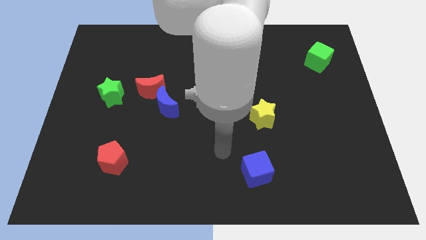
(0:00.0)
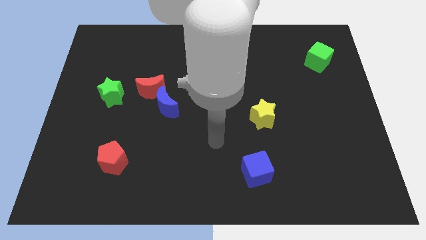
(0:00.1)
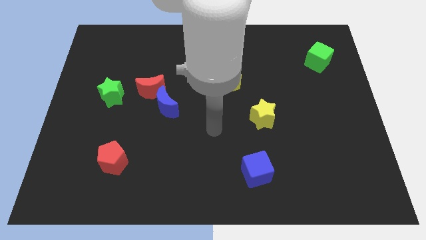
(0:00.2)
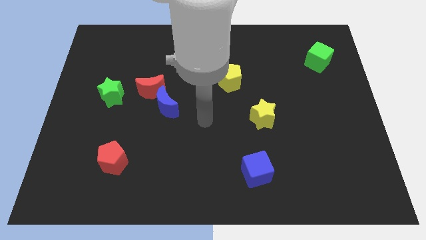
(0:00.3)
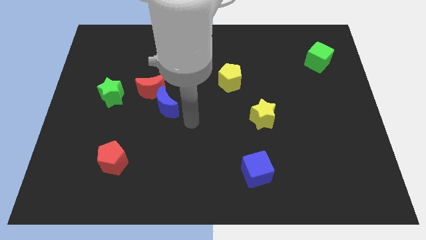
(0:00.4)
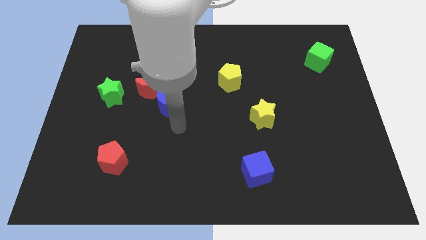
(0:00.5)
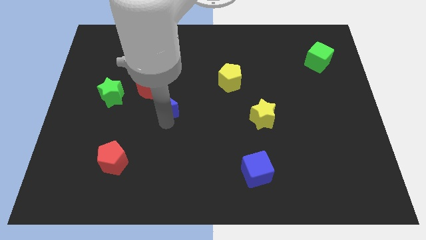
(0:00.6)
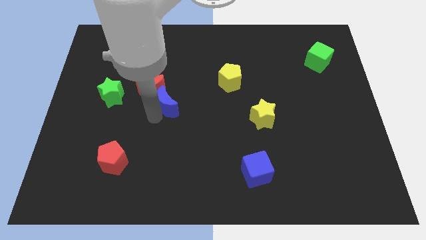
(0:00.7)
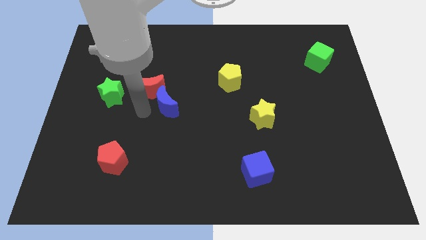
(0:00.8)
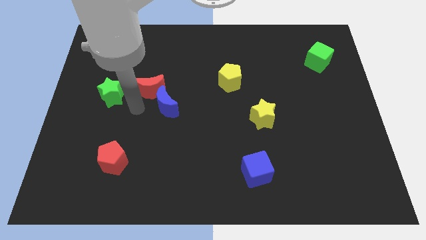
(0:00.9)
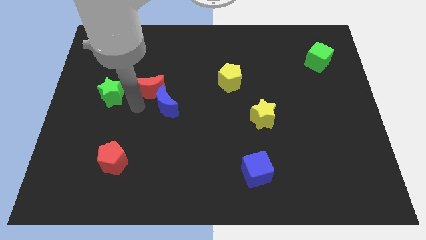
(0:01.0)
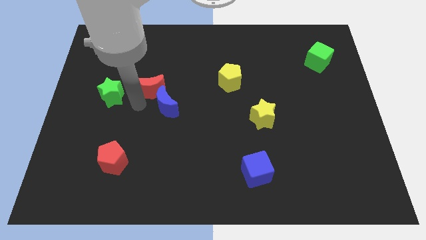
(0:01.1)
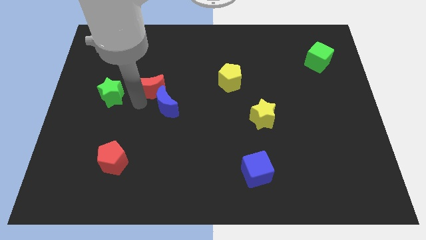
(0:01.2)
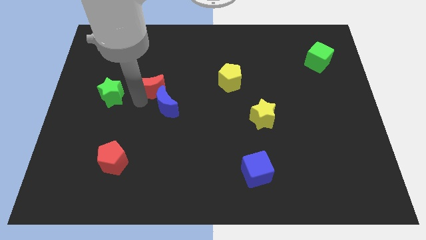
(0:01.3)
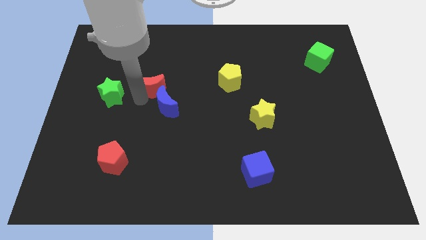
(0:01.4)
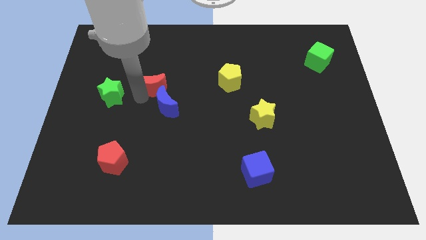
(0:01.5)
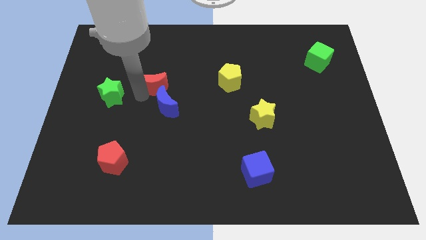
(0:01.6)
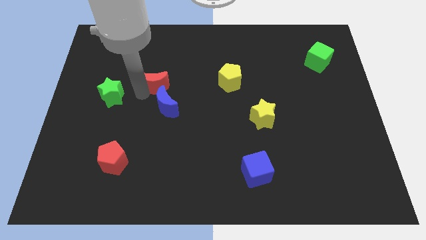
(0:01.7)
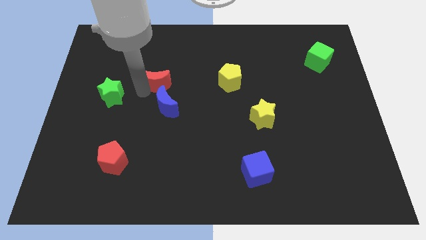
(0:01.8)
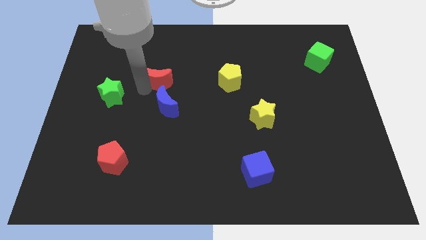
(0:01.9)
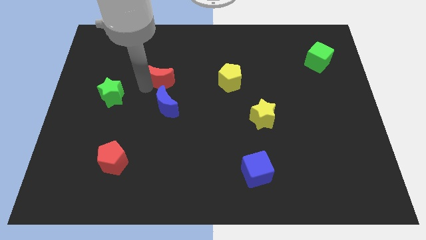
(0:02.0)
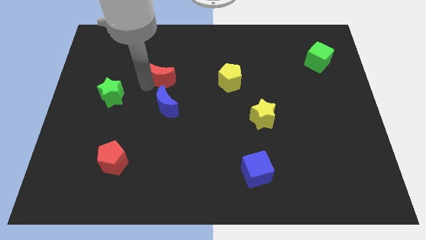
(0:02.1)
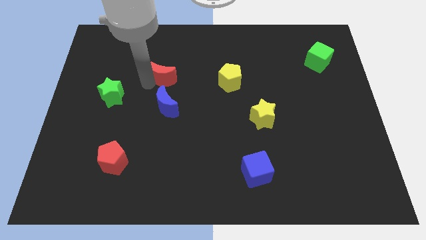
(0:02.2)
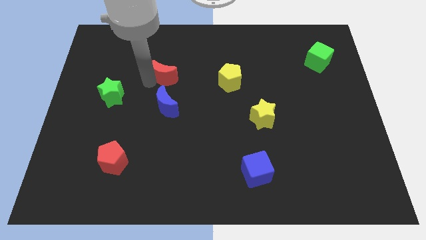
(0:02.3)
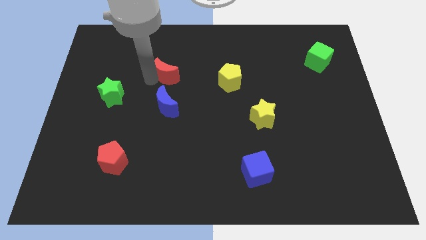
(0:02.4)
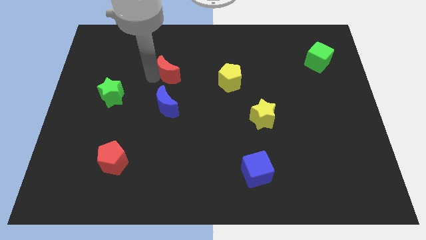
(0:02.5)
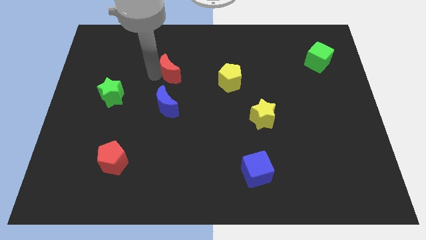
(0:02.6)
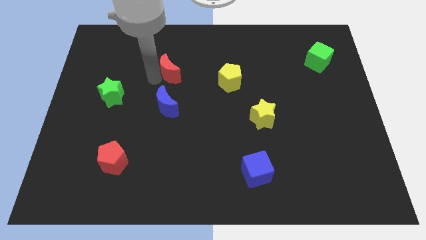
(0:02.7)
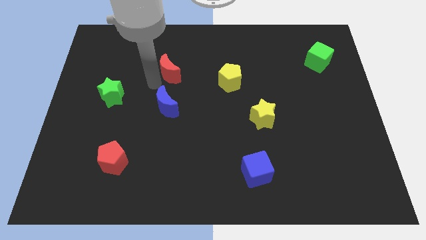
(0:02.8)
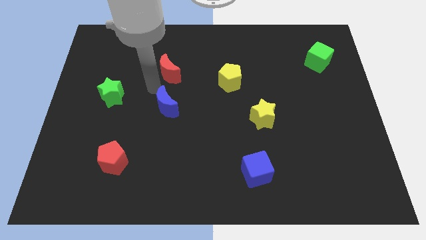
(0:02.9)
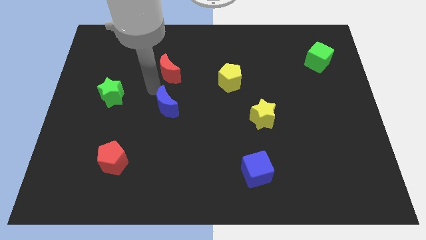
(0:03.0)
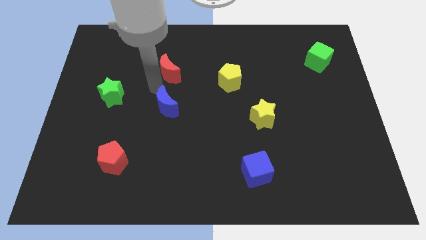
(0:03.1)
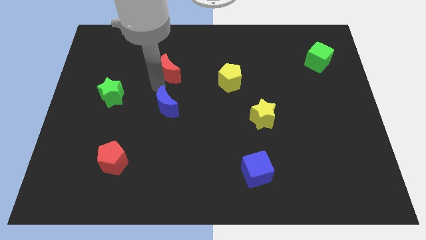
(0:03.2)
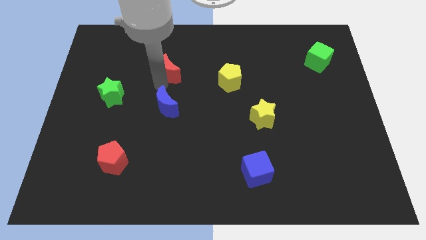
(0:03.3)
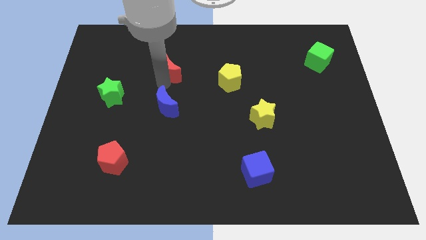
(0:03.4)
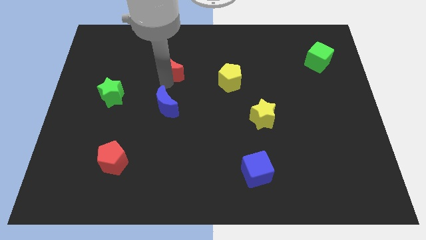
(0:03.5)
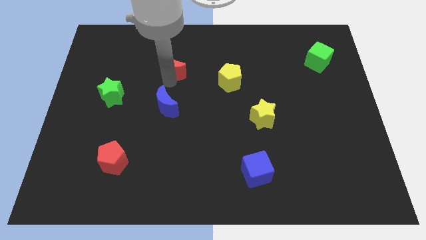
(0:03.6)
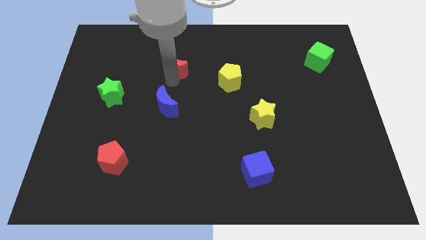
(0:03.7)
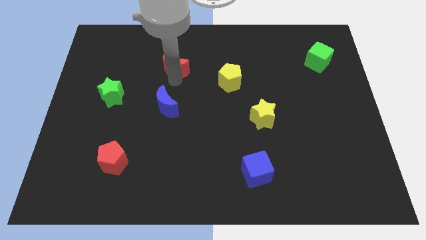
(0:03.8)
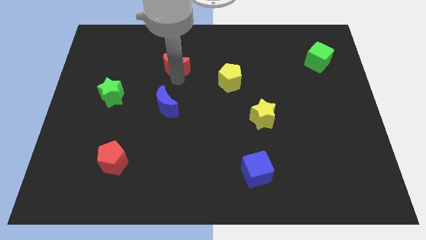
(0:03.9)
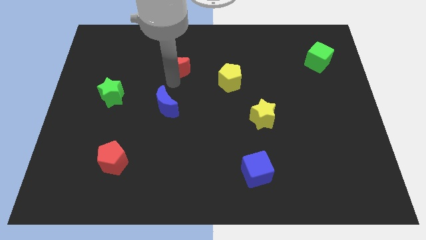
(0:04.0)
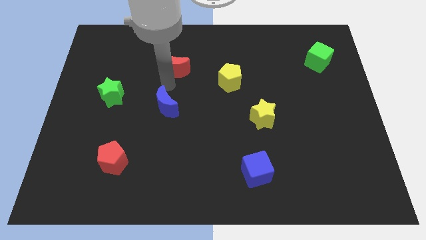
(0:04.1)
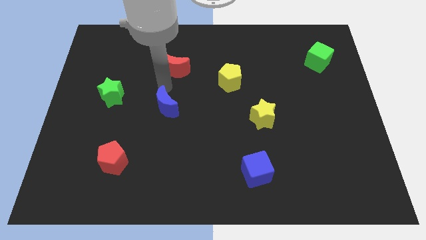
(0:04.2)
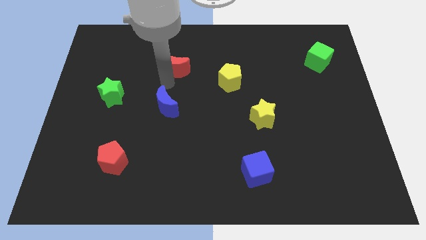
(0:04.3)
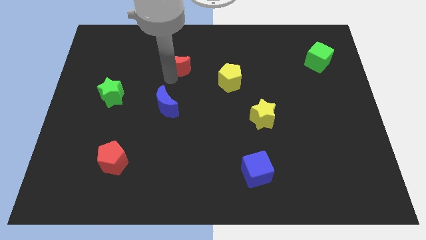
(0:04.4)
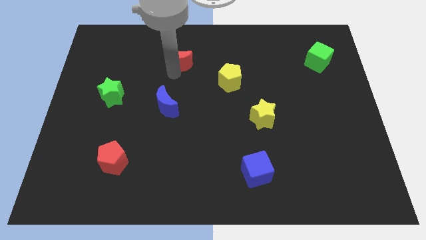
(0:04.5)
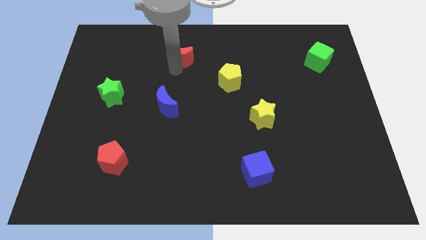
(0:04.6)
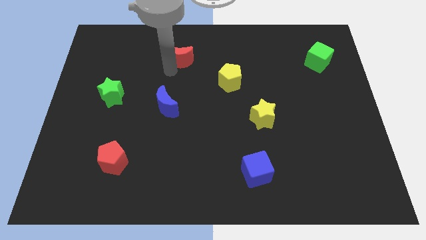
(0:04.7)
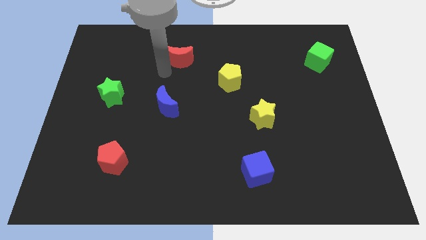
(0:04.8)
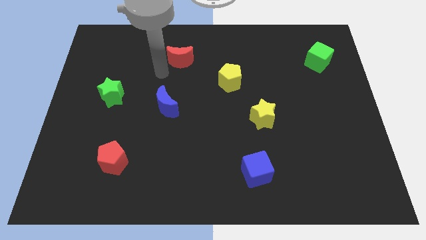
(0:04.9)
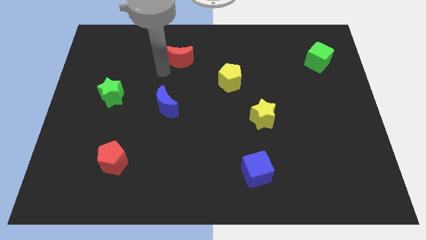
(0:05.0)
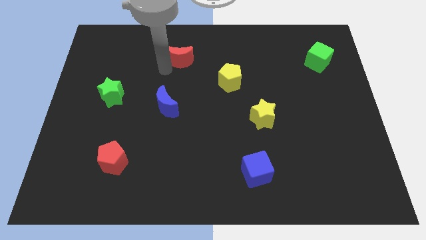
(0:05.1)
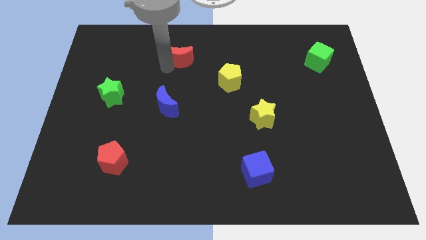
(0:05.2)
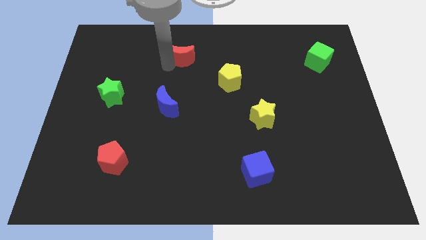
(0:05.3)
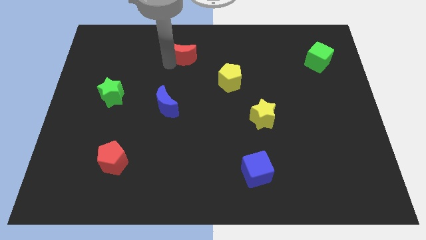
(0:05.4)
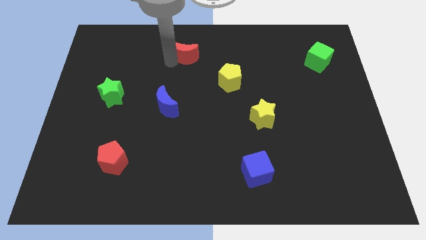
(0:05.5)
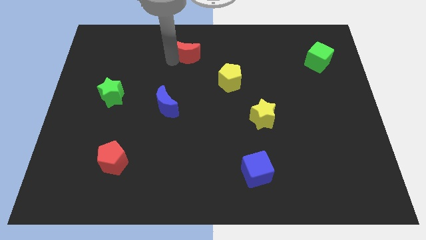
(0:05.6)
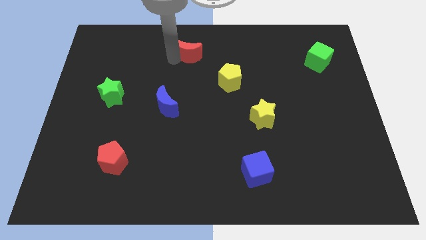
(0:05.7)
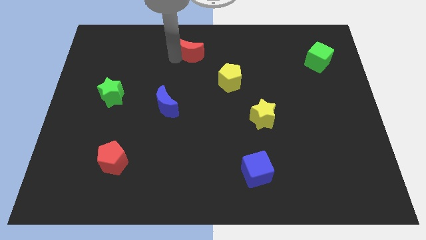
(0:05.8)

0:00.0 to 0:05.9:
push the red moon to the top
